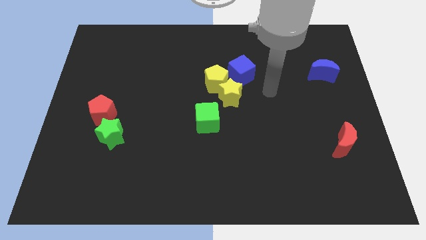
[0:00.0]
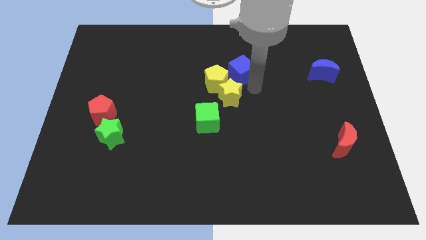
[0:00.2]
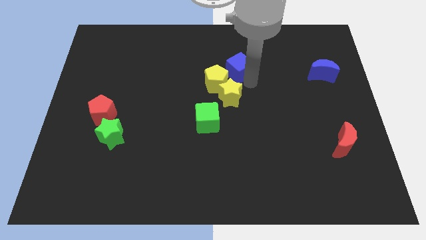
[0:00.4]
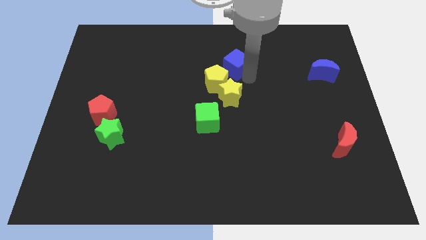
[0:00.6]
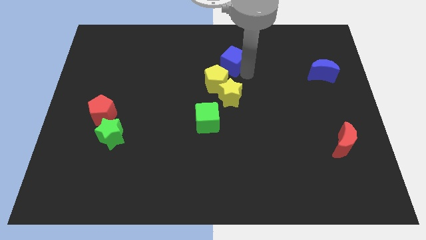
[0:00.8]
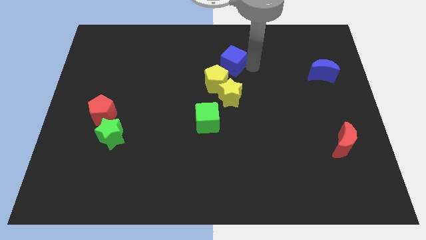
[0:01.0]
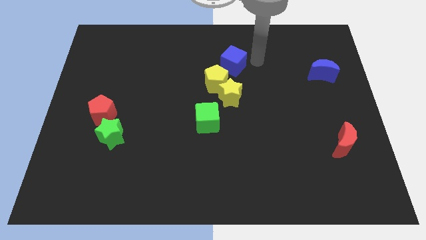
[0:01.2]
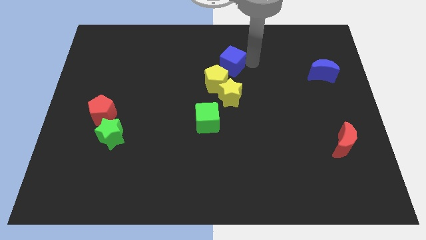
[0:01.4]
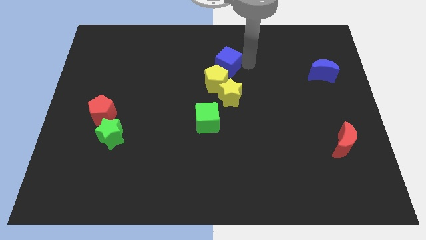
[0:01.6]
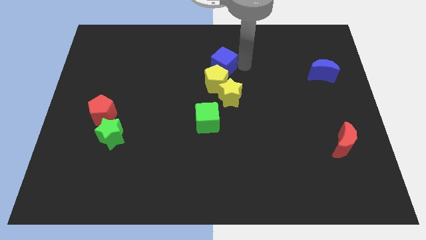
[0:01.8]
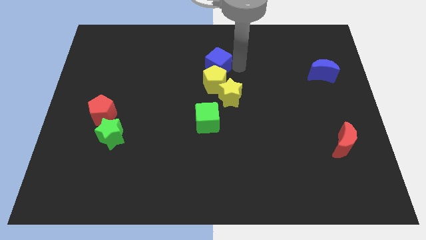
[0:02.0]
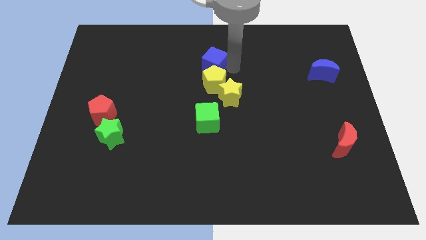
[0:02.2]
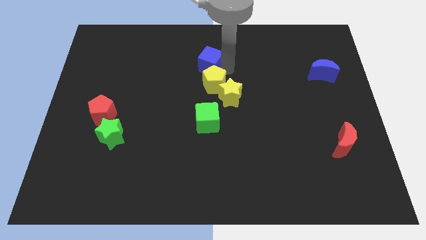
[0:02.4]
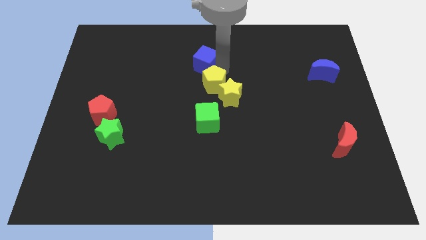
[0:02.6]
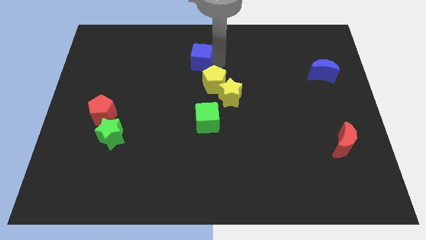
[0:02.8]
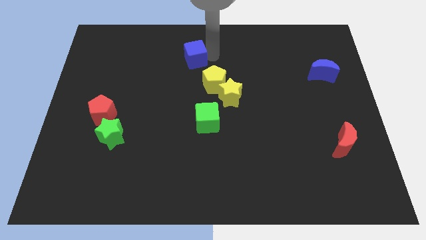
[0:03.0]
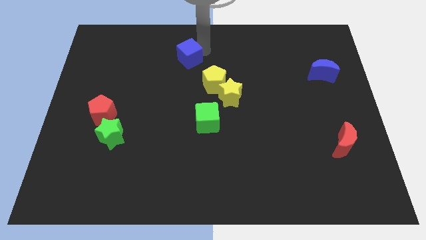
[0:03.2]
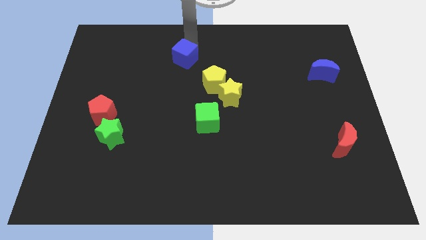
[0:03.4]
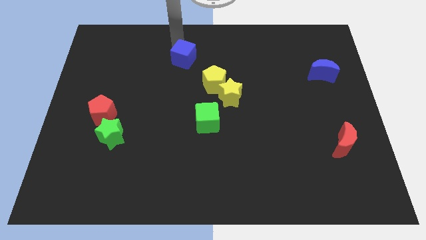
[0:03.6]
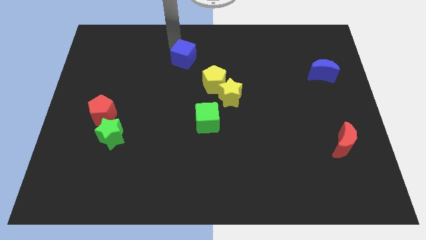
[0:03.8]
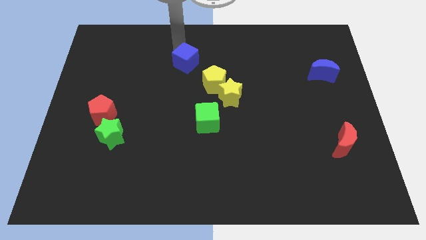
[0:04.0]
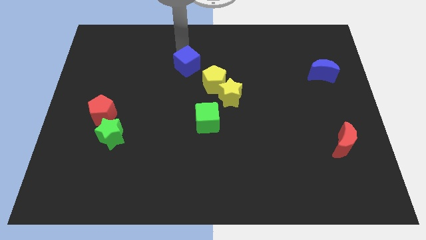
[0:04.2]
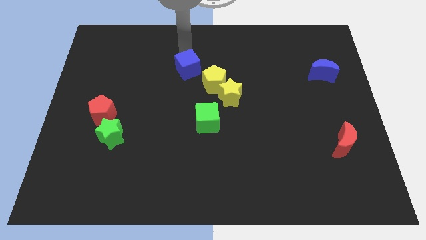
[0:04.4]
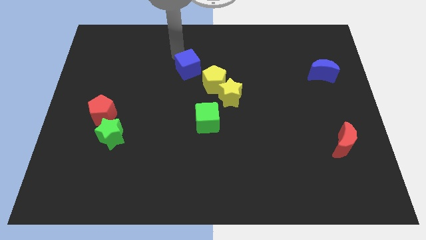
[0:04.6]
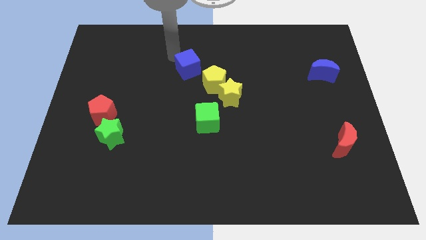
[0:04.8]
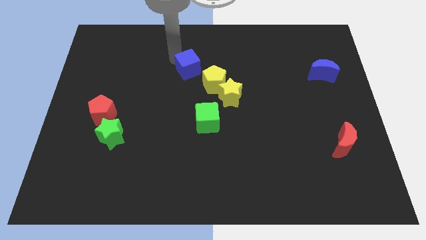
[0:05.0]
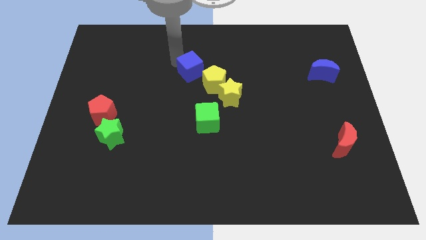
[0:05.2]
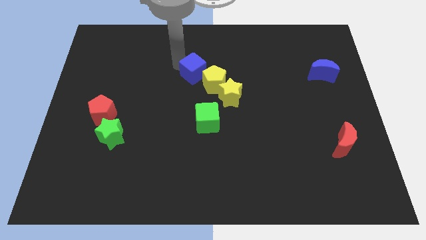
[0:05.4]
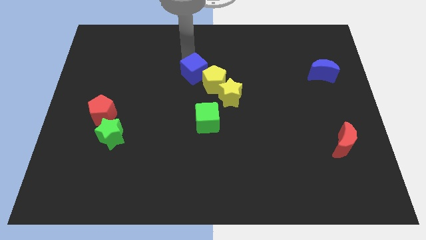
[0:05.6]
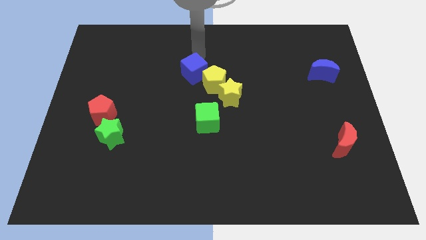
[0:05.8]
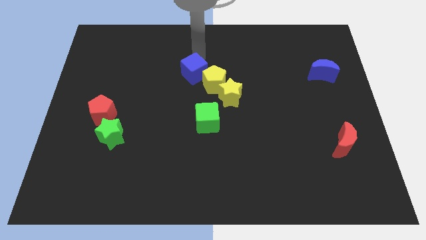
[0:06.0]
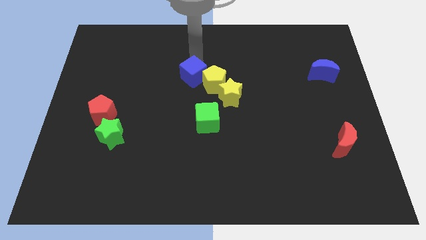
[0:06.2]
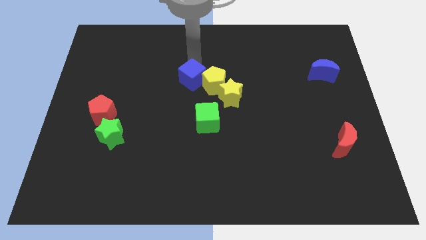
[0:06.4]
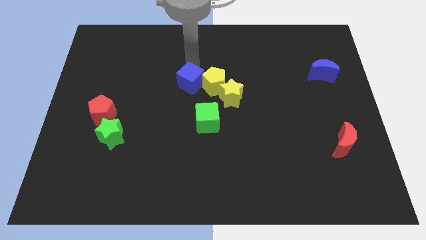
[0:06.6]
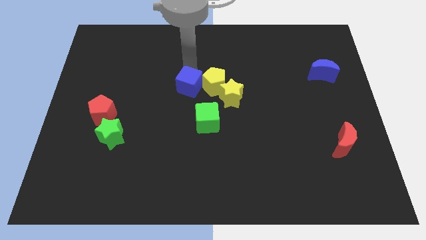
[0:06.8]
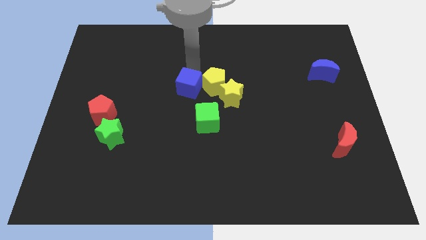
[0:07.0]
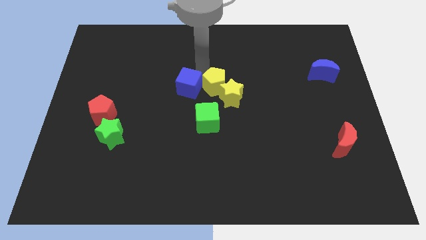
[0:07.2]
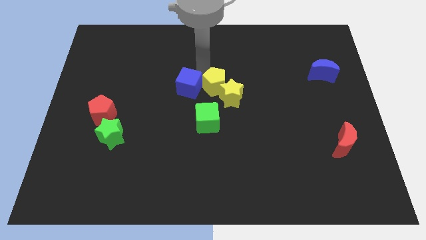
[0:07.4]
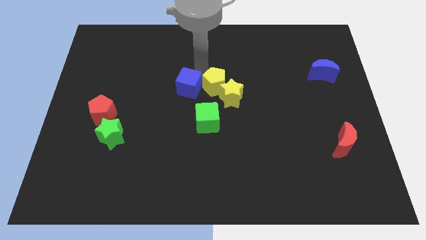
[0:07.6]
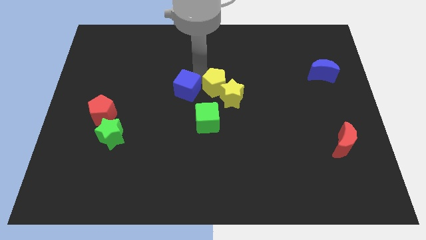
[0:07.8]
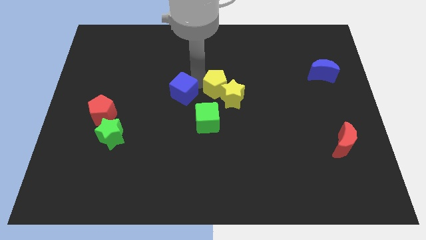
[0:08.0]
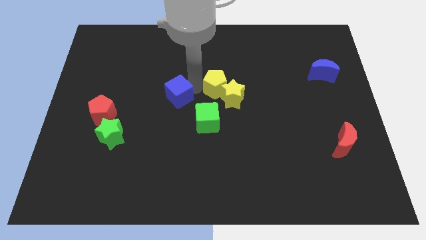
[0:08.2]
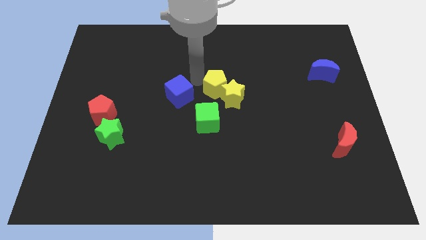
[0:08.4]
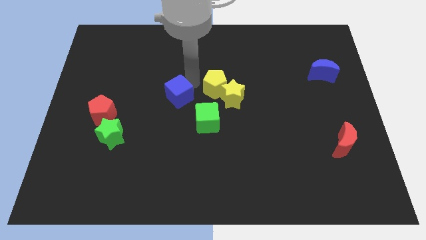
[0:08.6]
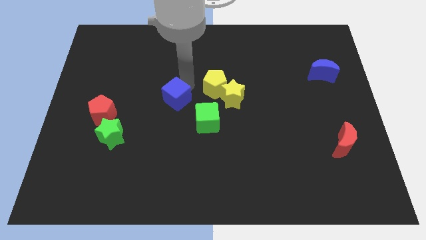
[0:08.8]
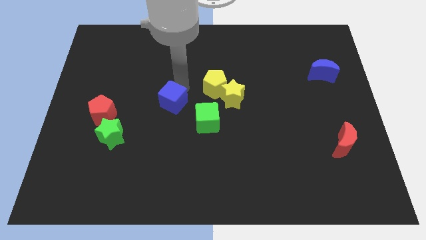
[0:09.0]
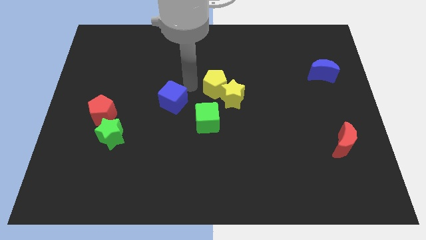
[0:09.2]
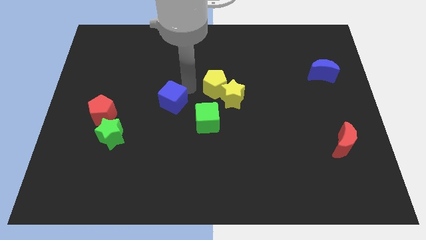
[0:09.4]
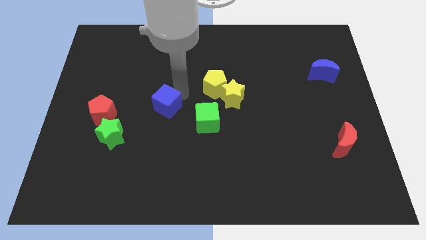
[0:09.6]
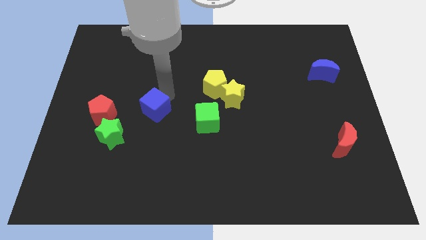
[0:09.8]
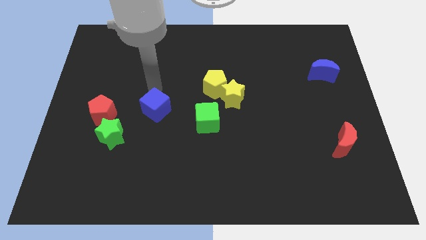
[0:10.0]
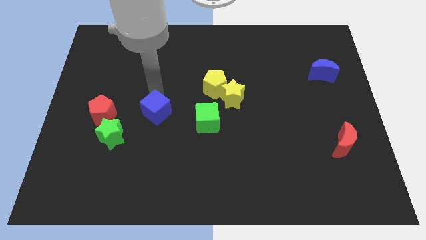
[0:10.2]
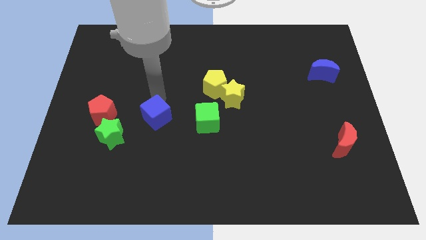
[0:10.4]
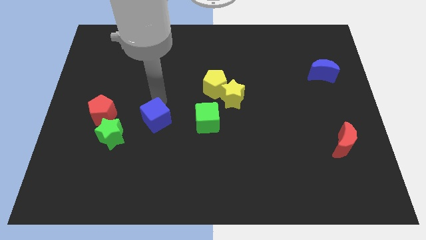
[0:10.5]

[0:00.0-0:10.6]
move the blue cube right of the green star

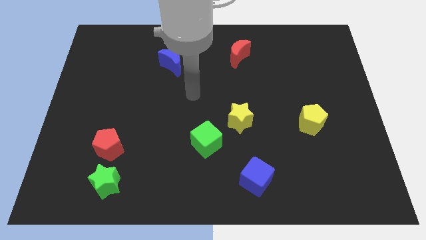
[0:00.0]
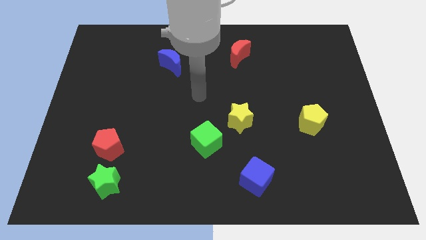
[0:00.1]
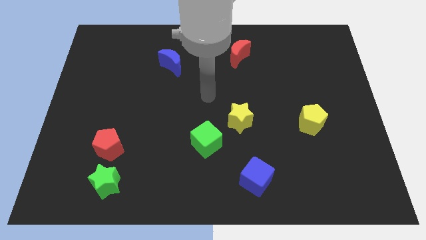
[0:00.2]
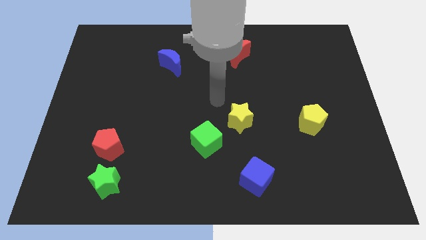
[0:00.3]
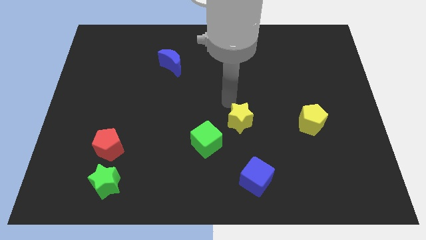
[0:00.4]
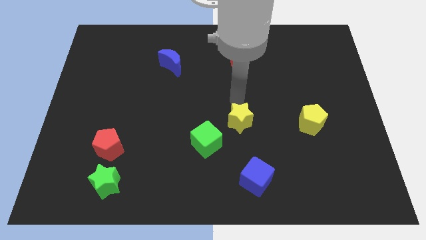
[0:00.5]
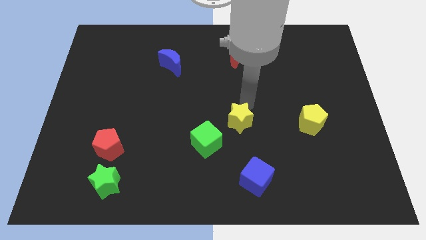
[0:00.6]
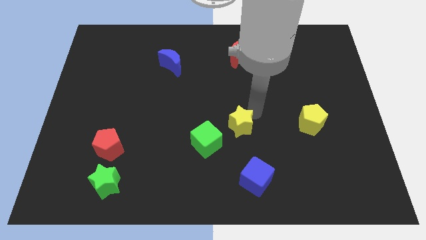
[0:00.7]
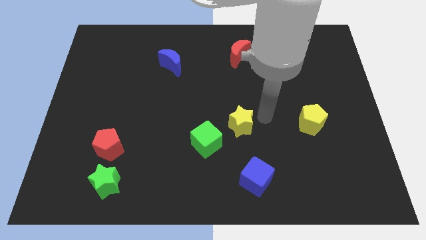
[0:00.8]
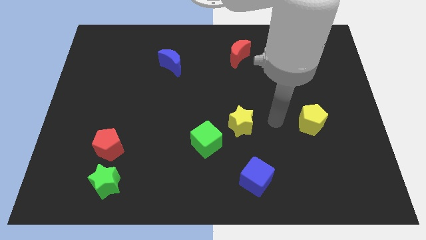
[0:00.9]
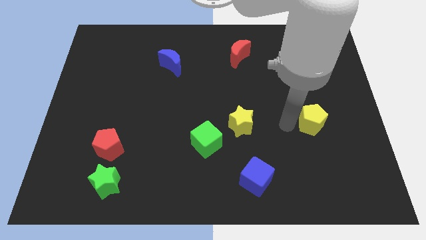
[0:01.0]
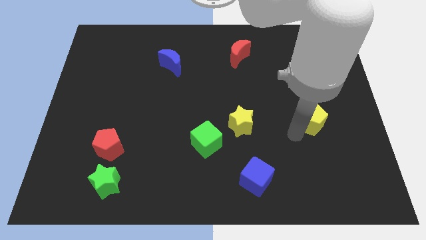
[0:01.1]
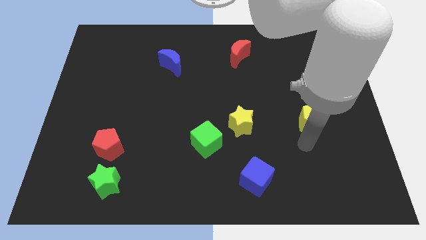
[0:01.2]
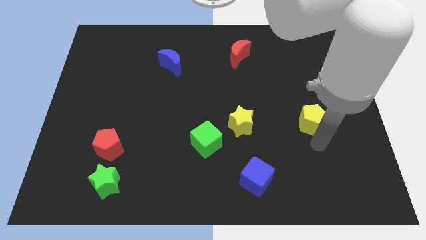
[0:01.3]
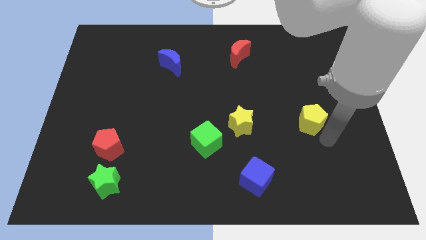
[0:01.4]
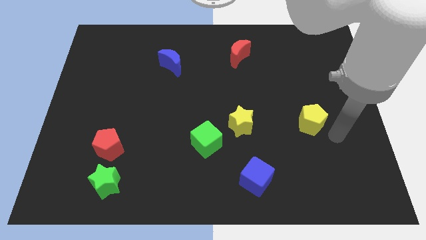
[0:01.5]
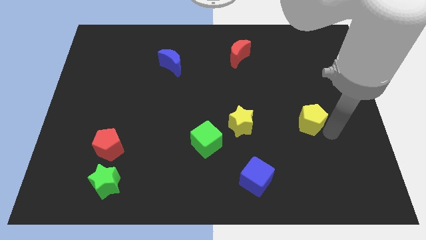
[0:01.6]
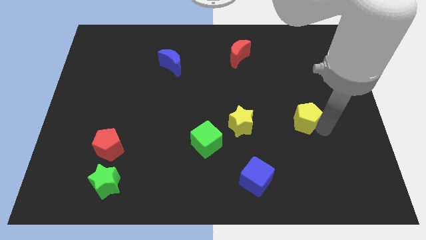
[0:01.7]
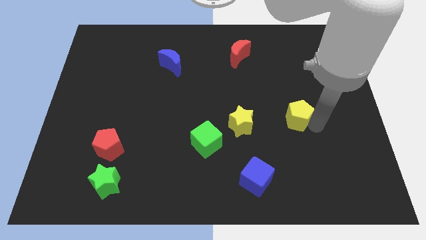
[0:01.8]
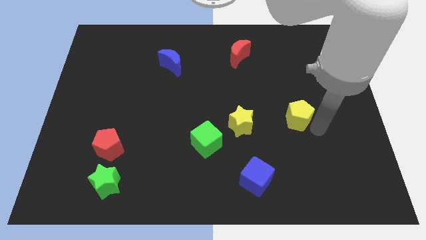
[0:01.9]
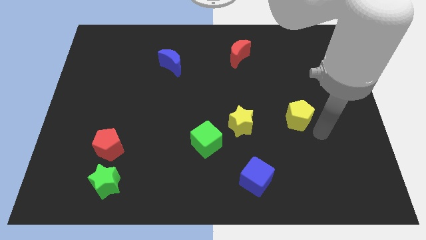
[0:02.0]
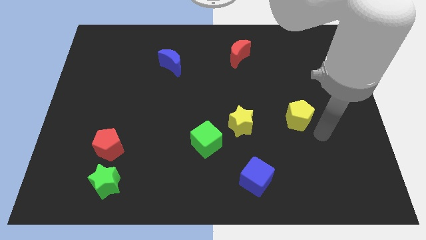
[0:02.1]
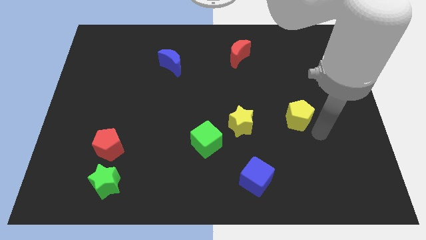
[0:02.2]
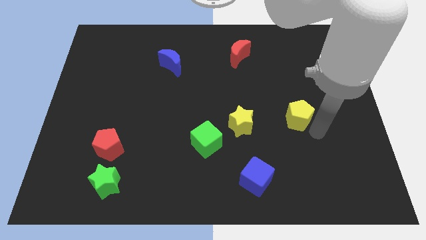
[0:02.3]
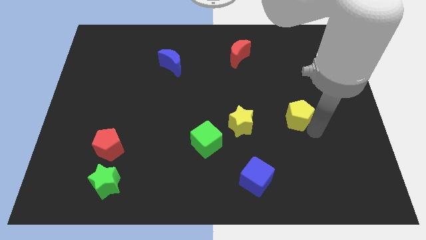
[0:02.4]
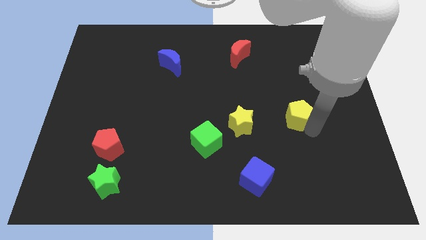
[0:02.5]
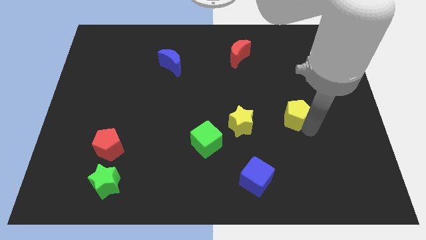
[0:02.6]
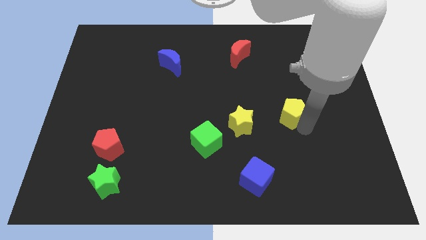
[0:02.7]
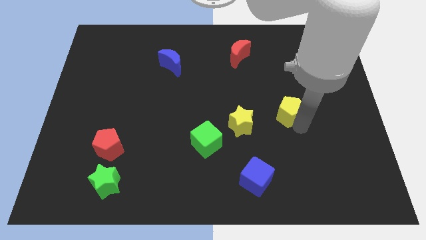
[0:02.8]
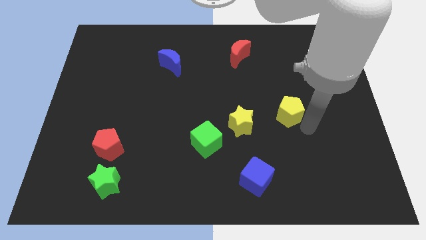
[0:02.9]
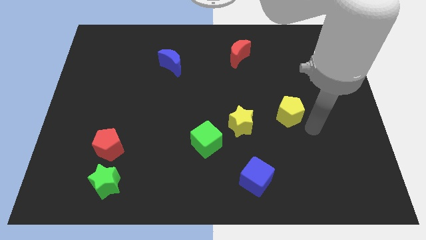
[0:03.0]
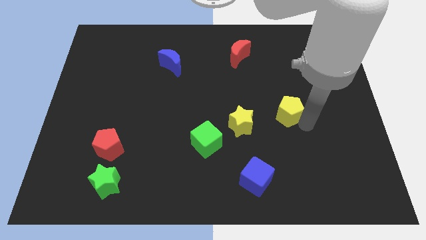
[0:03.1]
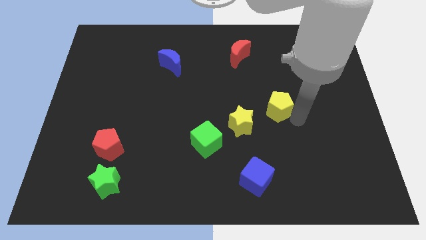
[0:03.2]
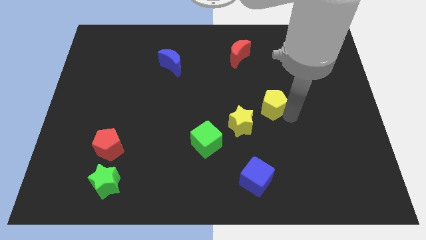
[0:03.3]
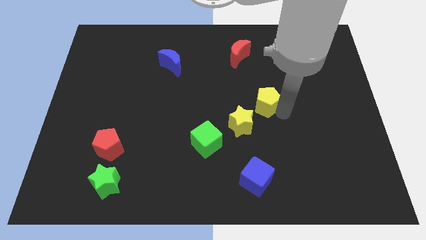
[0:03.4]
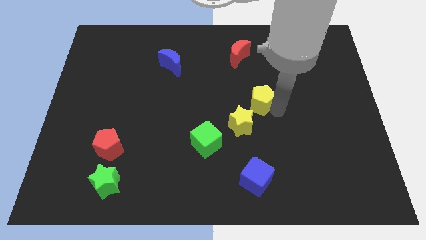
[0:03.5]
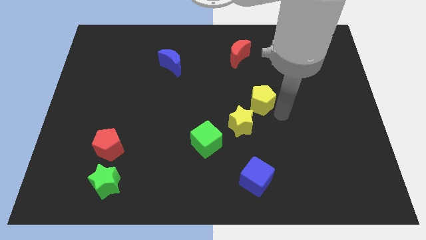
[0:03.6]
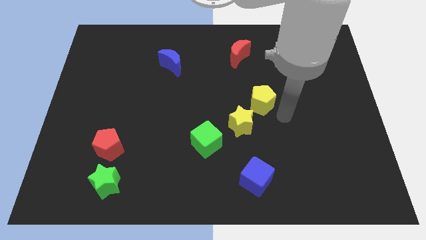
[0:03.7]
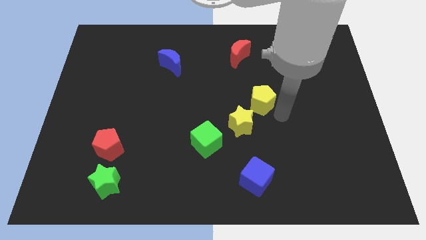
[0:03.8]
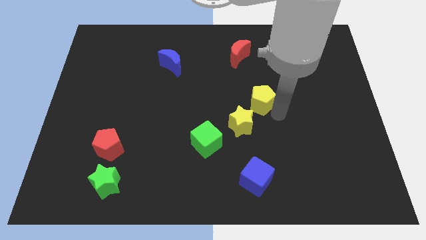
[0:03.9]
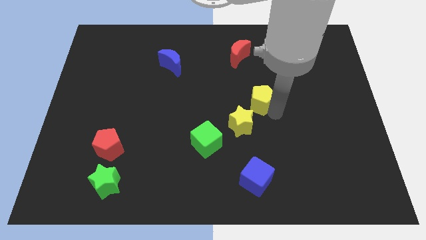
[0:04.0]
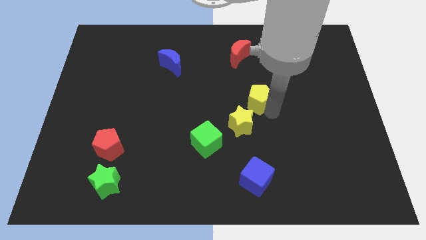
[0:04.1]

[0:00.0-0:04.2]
push the yellow pentagon to the top of the yellow star
